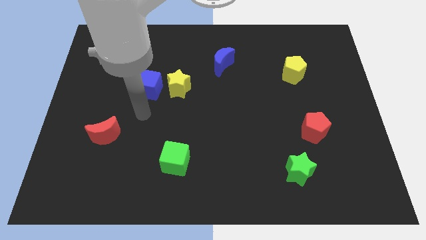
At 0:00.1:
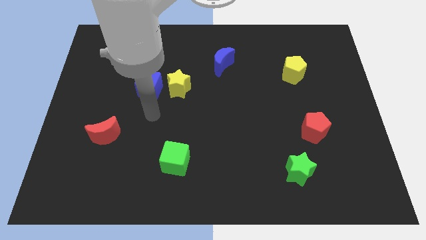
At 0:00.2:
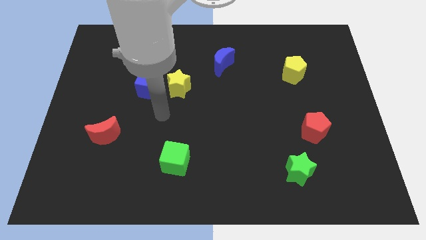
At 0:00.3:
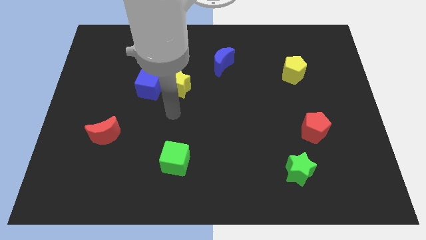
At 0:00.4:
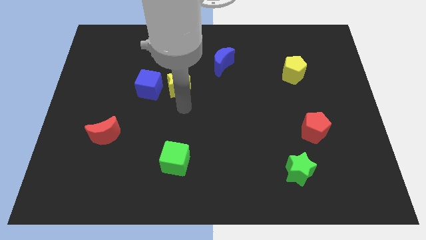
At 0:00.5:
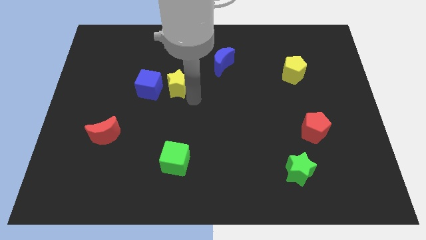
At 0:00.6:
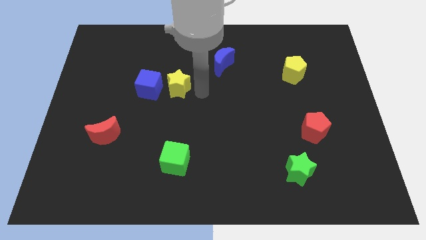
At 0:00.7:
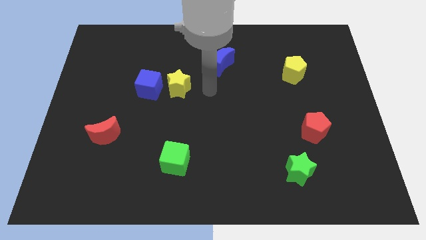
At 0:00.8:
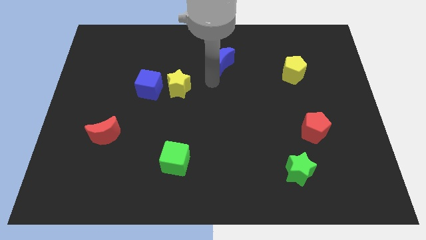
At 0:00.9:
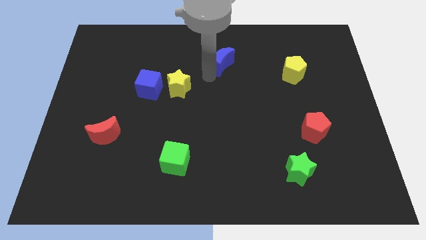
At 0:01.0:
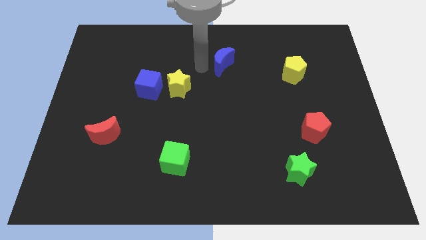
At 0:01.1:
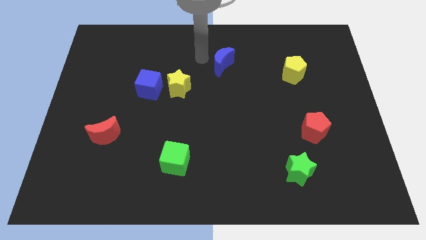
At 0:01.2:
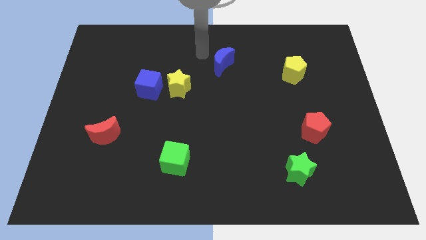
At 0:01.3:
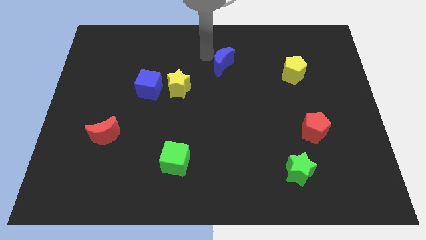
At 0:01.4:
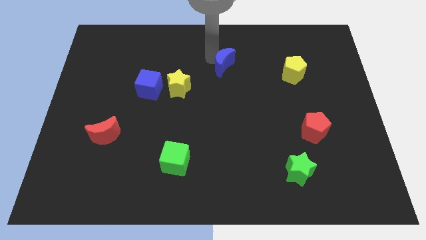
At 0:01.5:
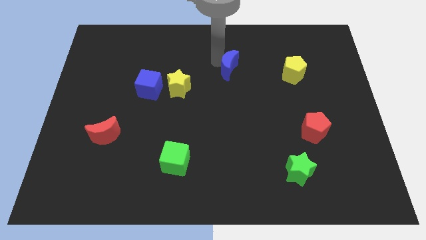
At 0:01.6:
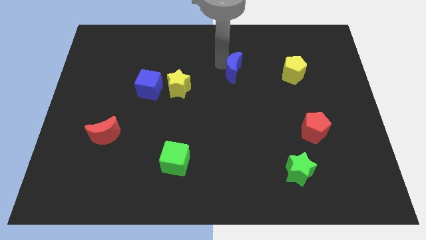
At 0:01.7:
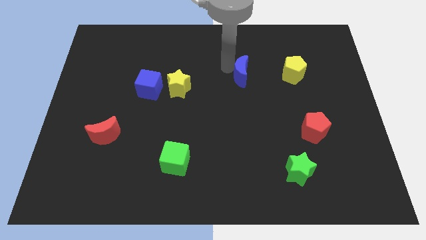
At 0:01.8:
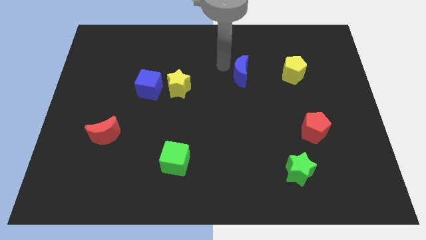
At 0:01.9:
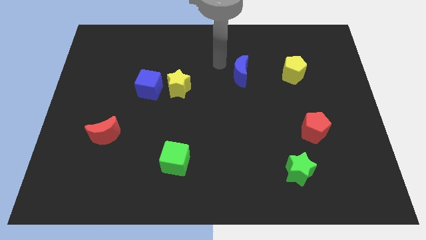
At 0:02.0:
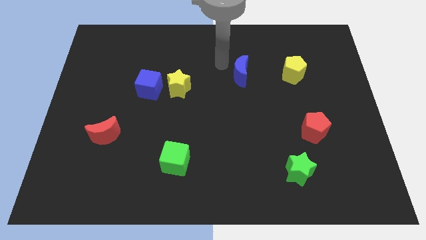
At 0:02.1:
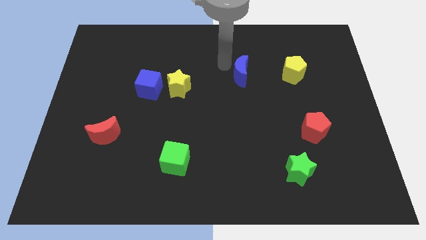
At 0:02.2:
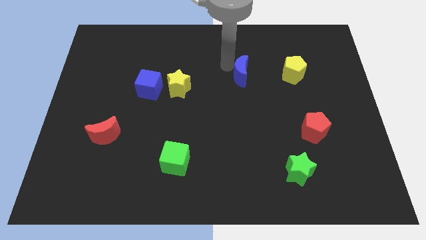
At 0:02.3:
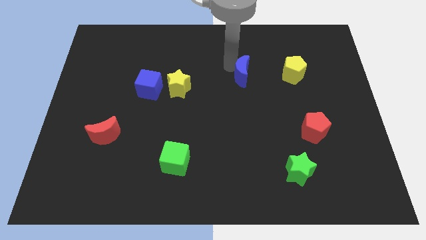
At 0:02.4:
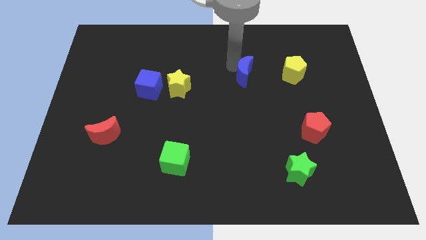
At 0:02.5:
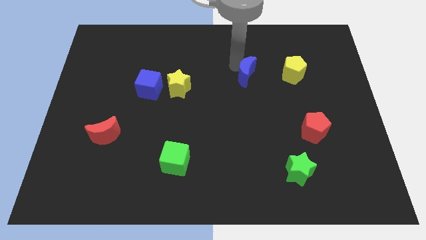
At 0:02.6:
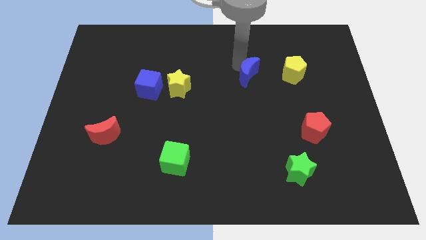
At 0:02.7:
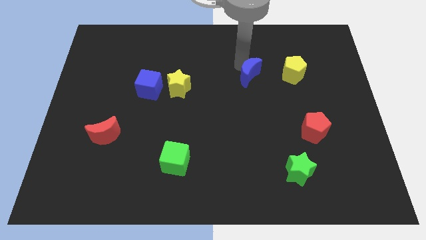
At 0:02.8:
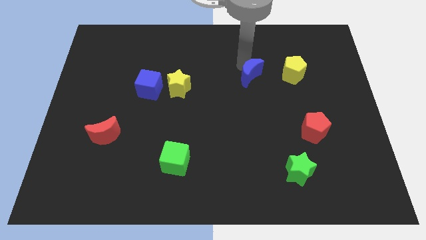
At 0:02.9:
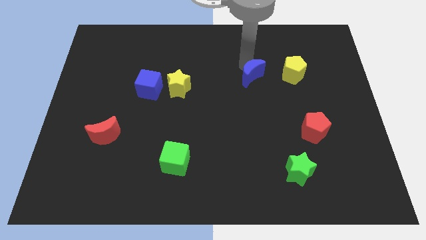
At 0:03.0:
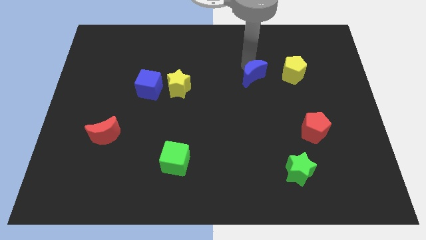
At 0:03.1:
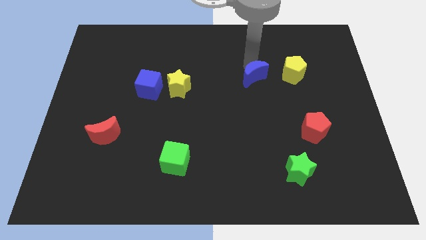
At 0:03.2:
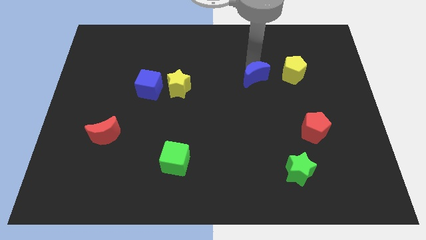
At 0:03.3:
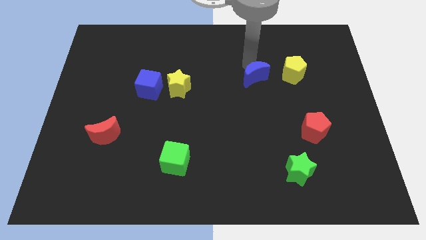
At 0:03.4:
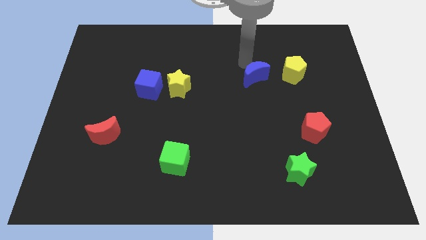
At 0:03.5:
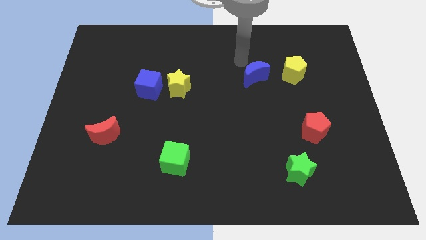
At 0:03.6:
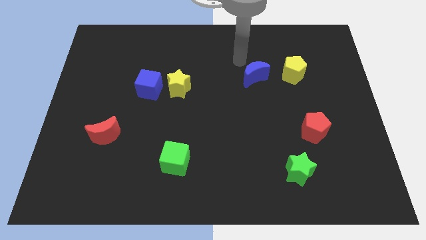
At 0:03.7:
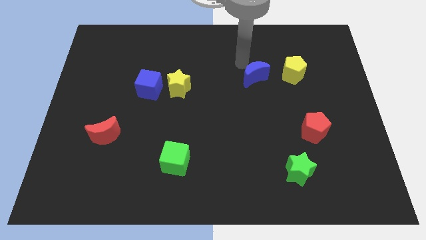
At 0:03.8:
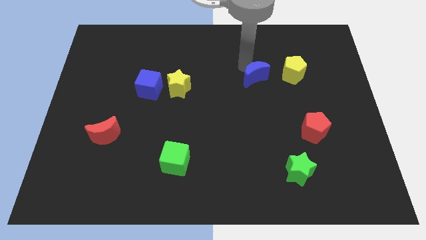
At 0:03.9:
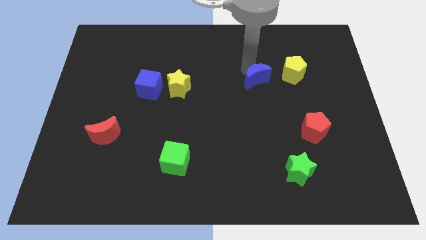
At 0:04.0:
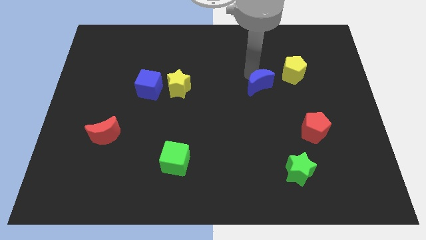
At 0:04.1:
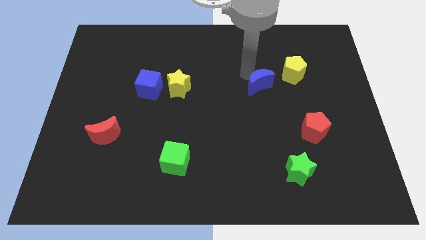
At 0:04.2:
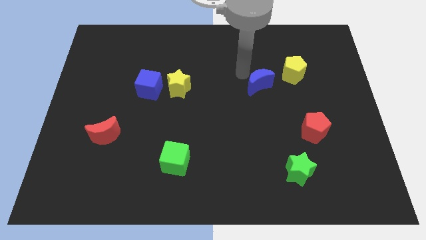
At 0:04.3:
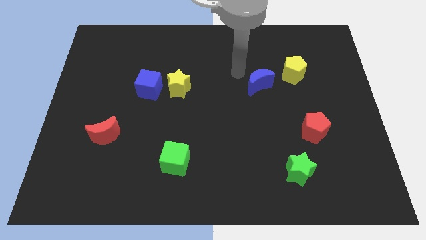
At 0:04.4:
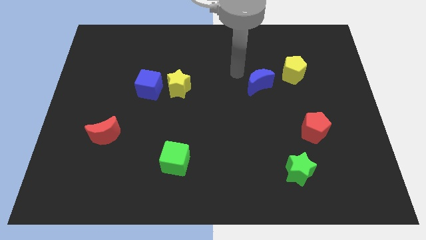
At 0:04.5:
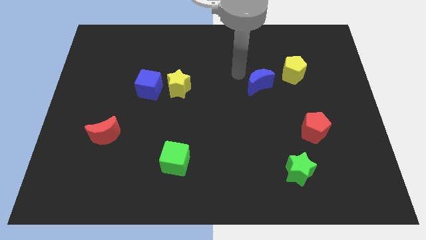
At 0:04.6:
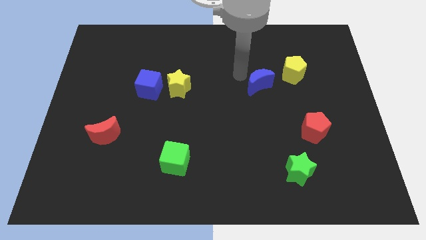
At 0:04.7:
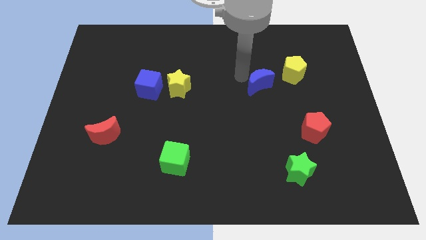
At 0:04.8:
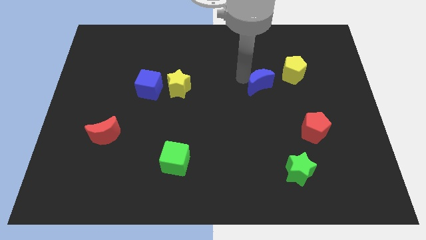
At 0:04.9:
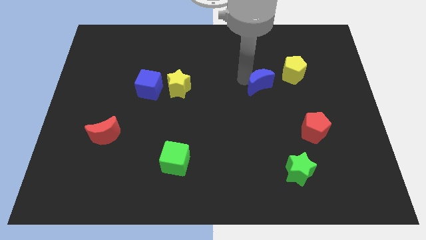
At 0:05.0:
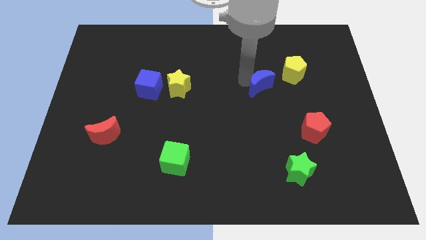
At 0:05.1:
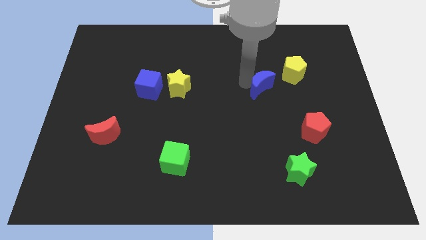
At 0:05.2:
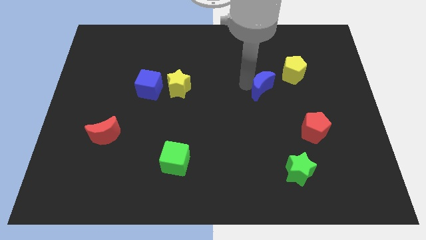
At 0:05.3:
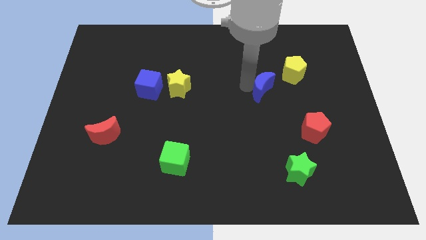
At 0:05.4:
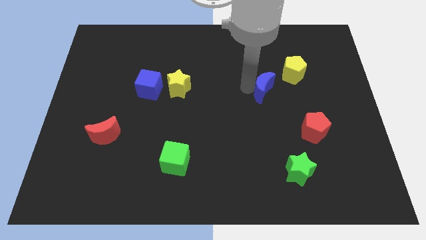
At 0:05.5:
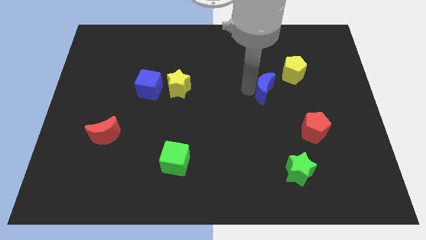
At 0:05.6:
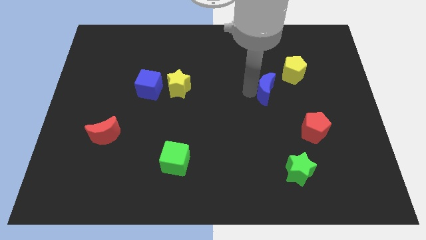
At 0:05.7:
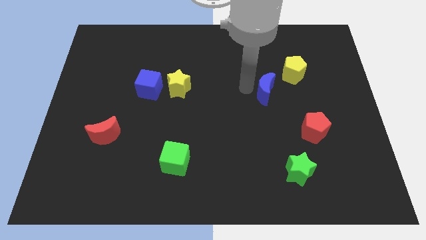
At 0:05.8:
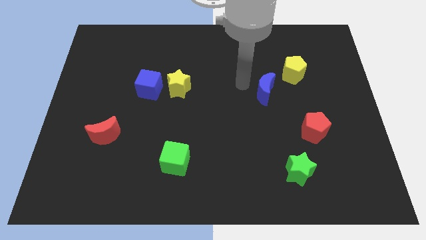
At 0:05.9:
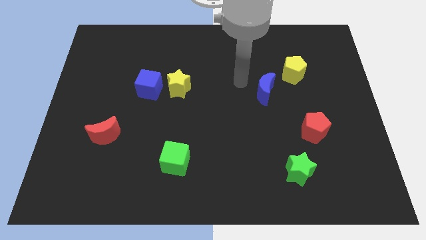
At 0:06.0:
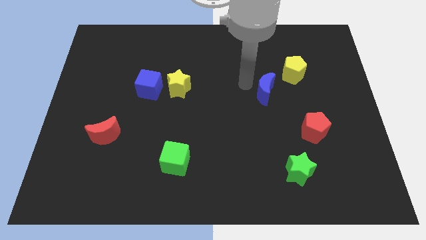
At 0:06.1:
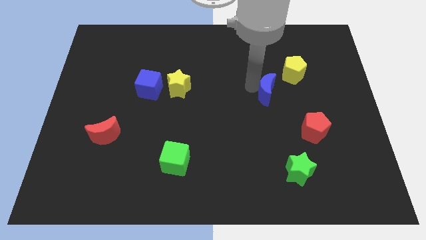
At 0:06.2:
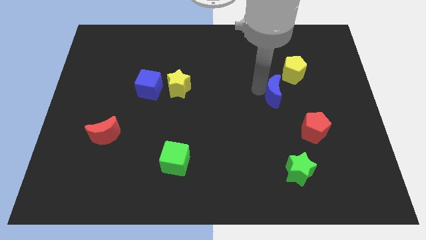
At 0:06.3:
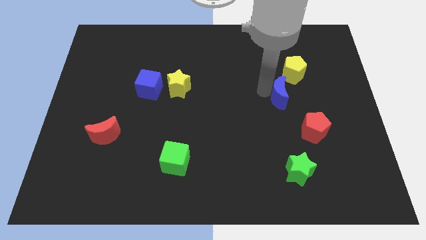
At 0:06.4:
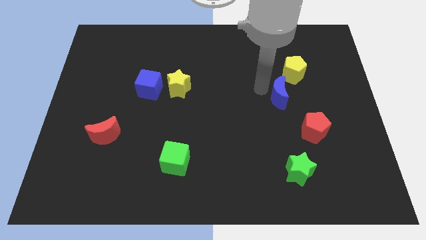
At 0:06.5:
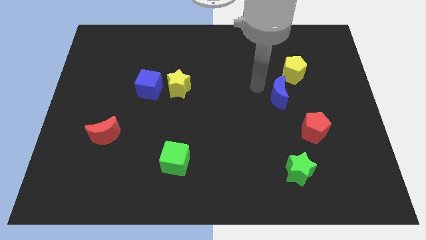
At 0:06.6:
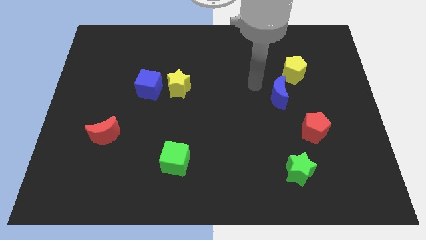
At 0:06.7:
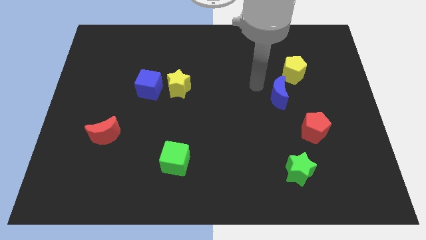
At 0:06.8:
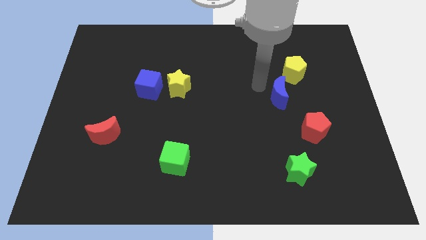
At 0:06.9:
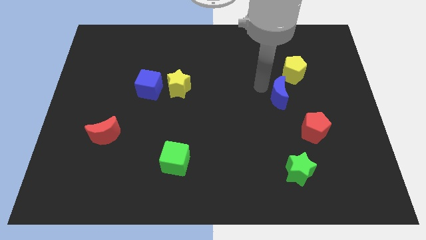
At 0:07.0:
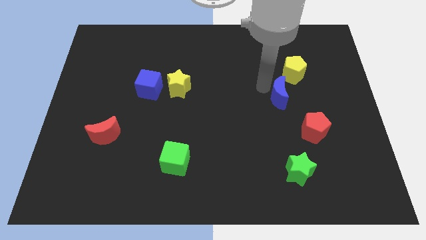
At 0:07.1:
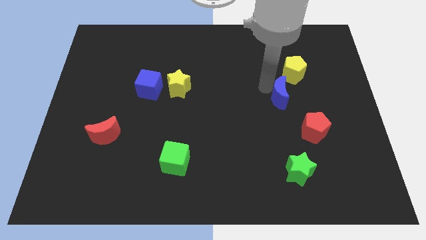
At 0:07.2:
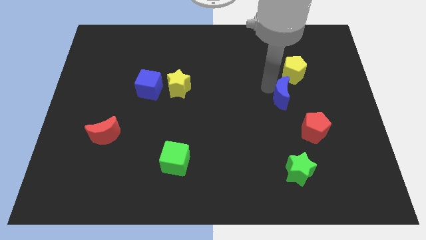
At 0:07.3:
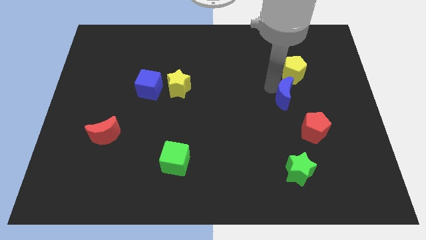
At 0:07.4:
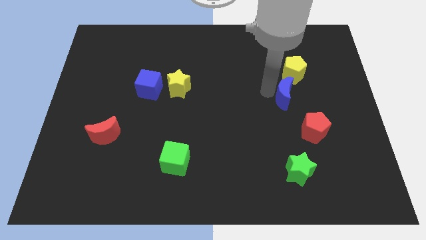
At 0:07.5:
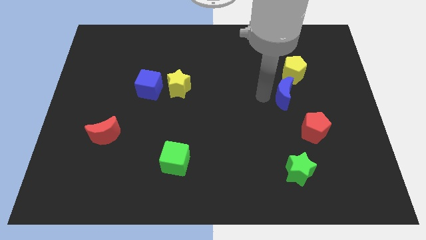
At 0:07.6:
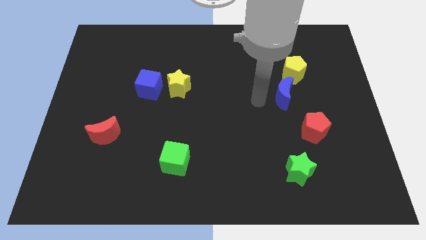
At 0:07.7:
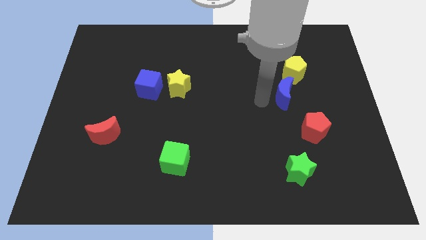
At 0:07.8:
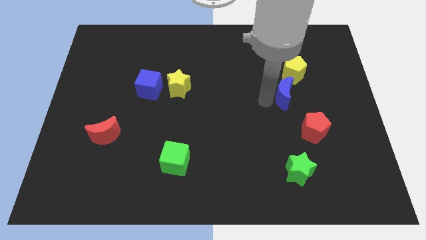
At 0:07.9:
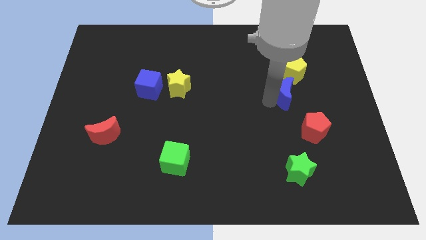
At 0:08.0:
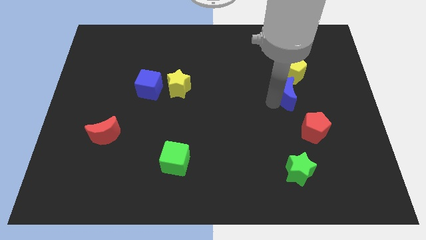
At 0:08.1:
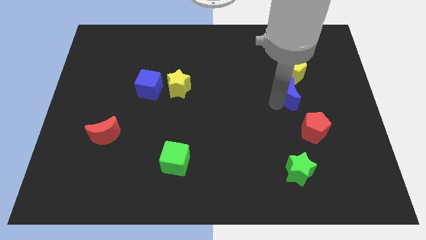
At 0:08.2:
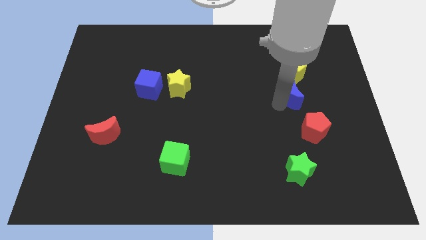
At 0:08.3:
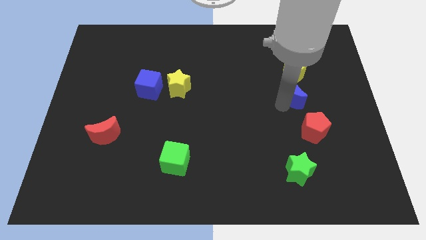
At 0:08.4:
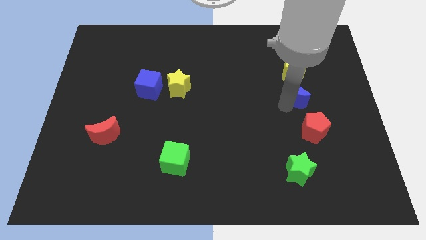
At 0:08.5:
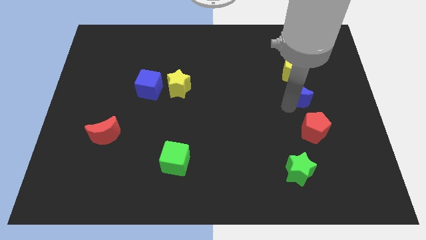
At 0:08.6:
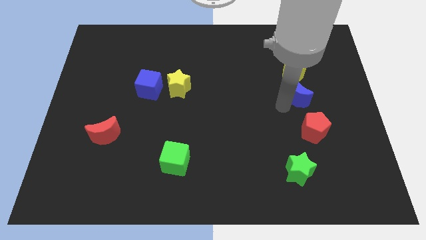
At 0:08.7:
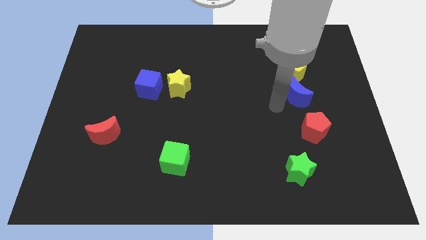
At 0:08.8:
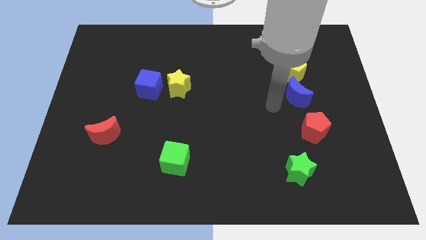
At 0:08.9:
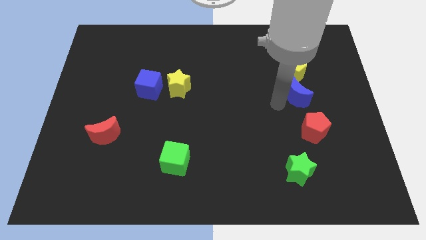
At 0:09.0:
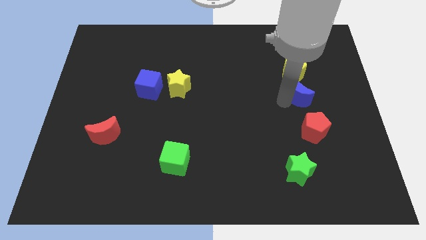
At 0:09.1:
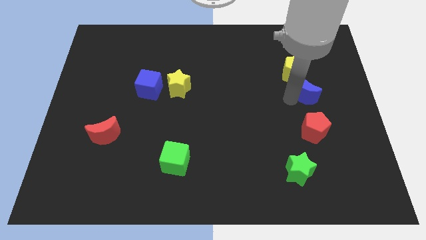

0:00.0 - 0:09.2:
slide the blue moon to the bottom right side of the yellow pentagon
